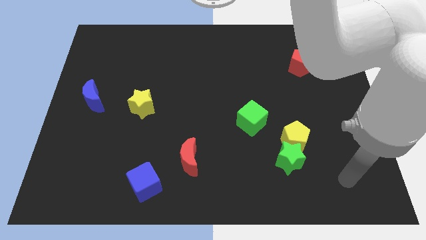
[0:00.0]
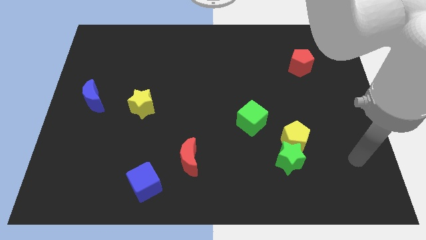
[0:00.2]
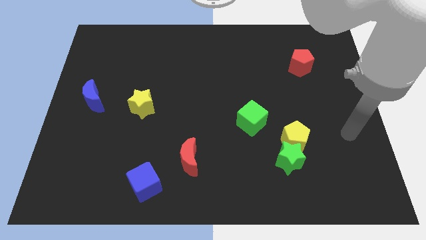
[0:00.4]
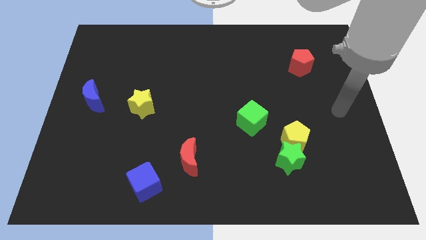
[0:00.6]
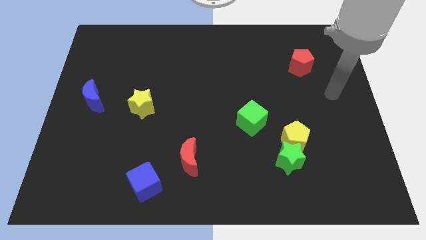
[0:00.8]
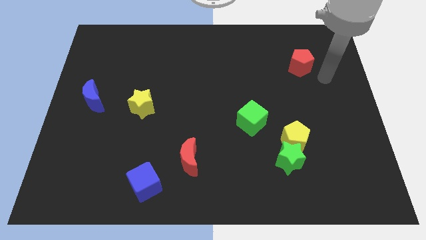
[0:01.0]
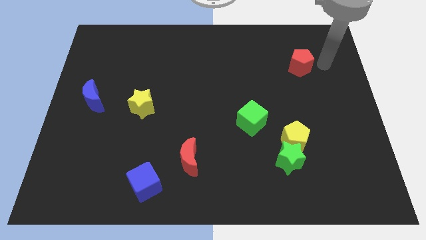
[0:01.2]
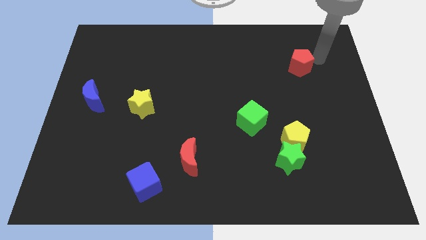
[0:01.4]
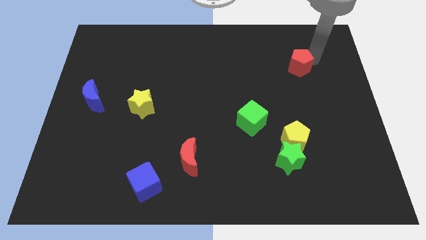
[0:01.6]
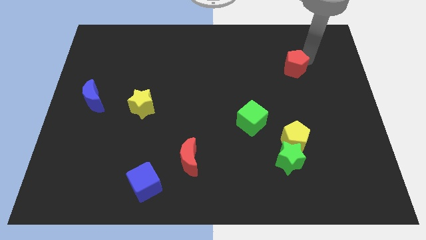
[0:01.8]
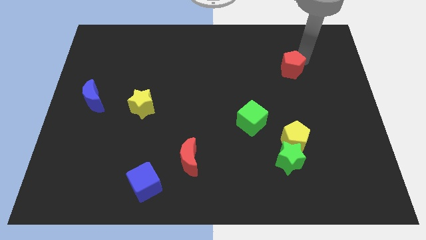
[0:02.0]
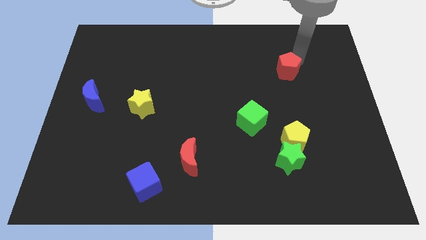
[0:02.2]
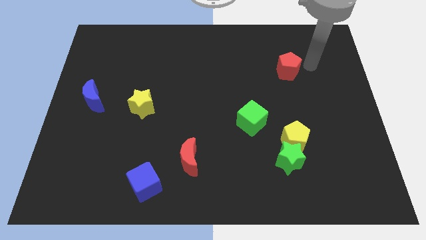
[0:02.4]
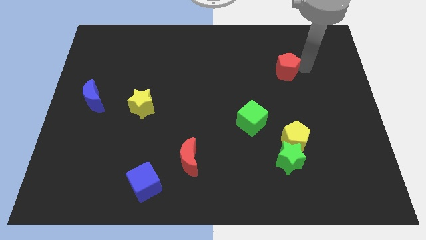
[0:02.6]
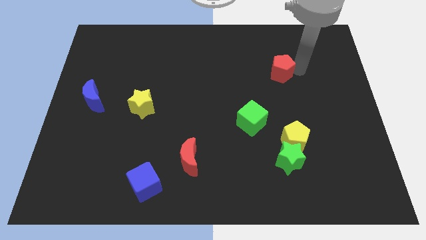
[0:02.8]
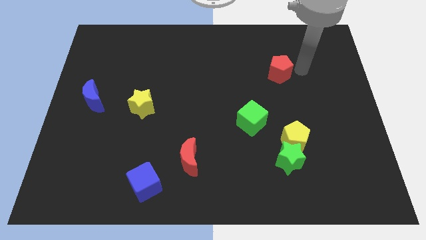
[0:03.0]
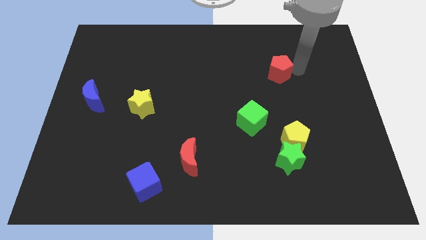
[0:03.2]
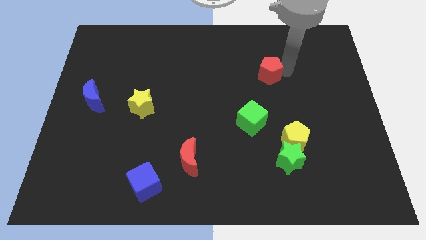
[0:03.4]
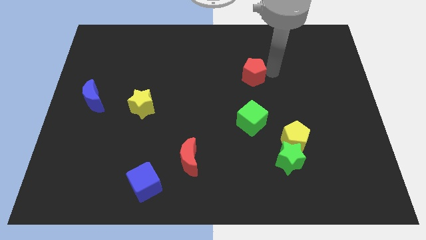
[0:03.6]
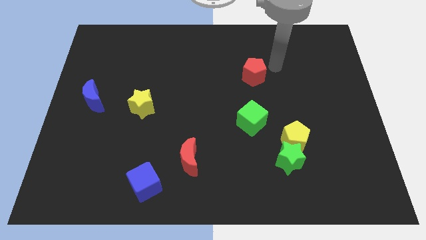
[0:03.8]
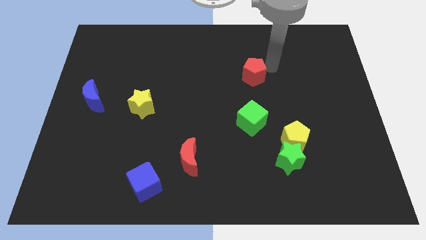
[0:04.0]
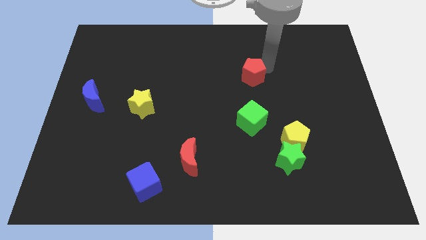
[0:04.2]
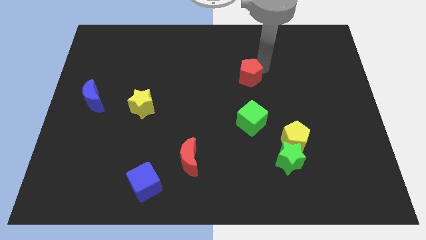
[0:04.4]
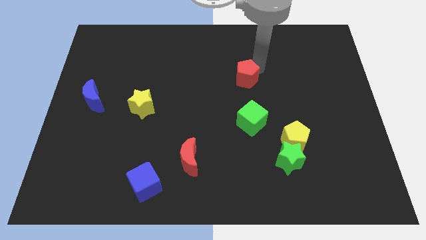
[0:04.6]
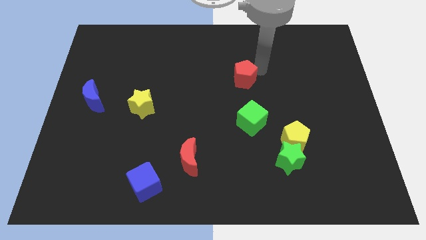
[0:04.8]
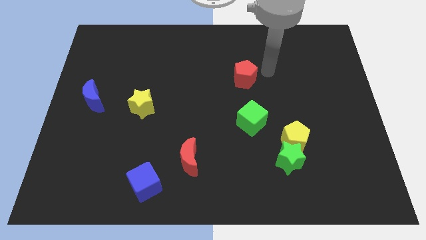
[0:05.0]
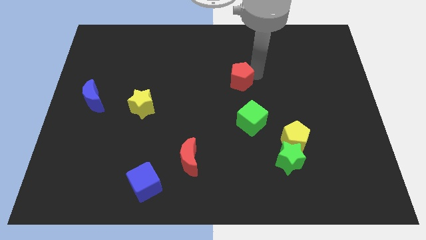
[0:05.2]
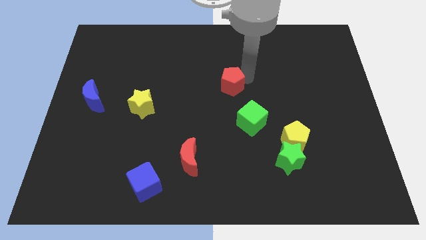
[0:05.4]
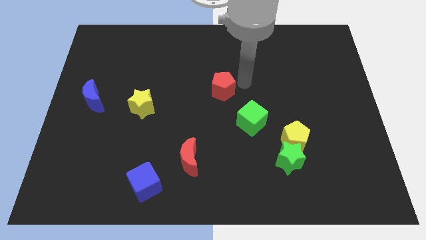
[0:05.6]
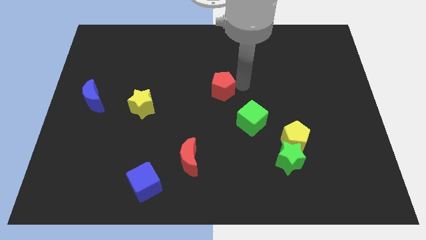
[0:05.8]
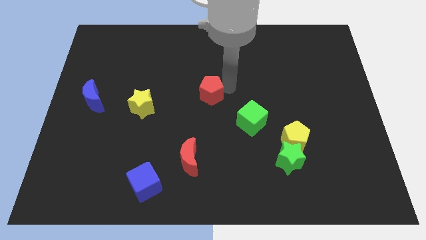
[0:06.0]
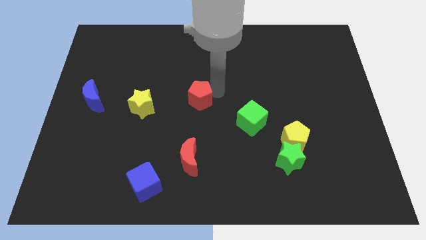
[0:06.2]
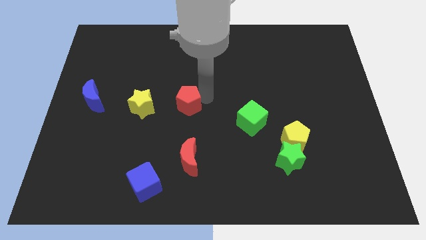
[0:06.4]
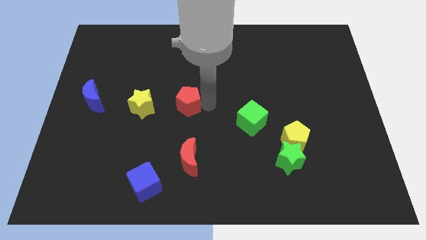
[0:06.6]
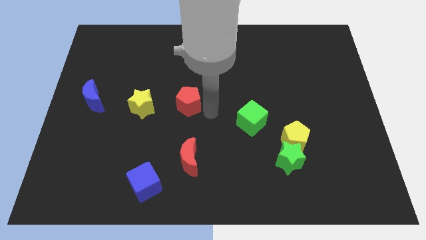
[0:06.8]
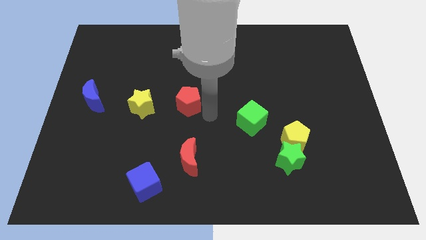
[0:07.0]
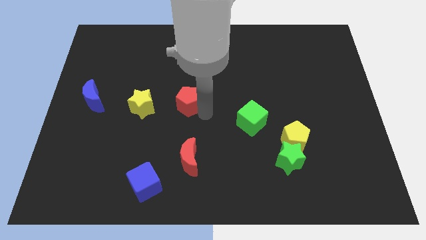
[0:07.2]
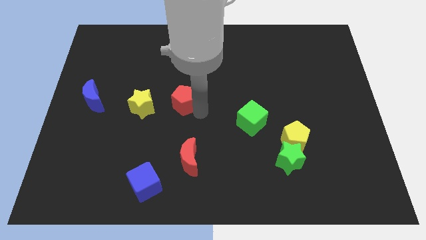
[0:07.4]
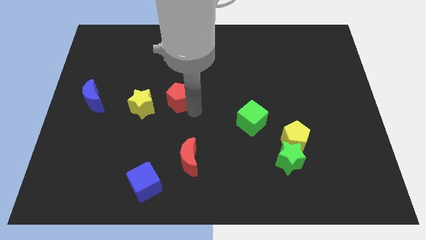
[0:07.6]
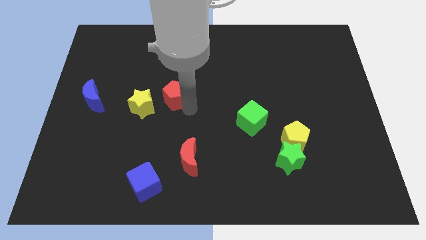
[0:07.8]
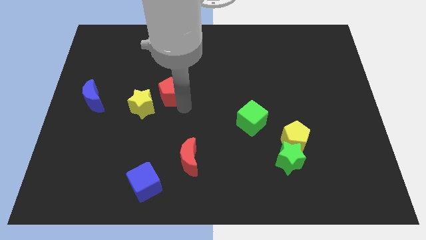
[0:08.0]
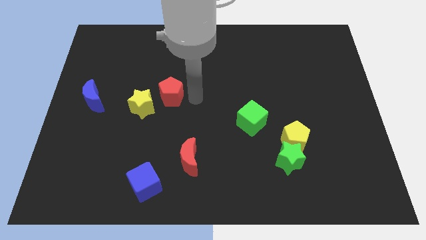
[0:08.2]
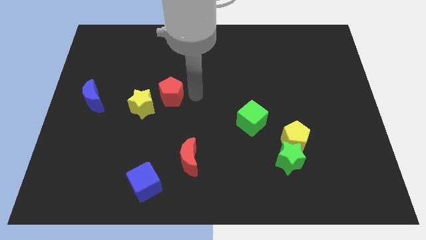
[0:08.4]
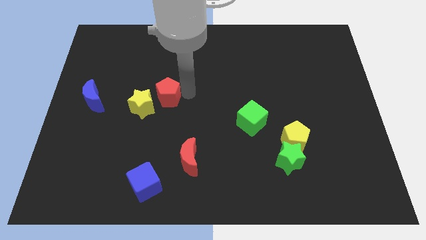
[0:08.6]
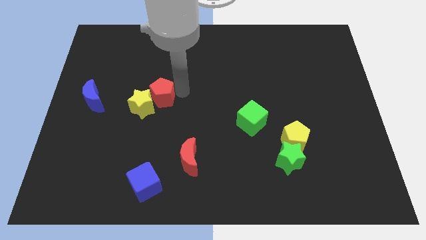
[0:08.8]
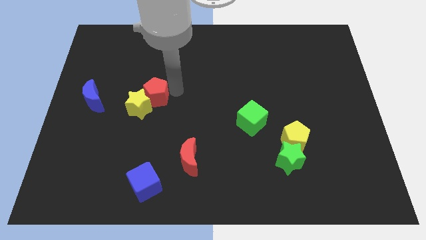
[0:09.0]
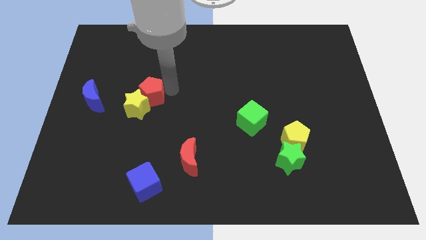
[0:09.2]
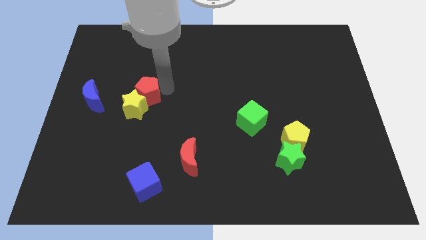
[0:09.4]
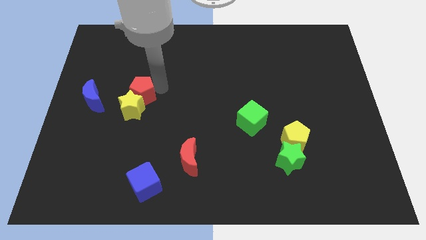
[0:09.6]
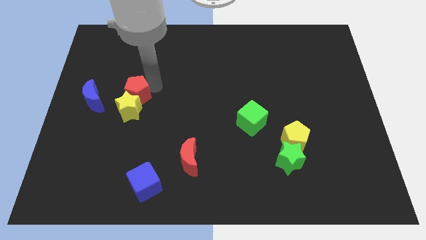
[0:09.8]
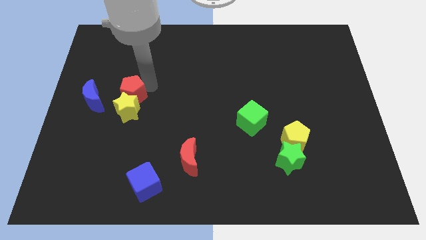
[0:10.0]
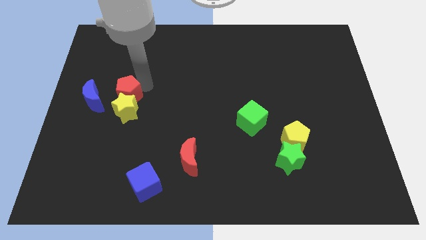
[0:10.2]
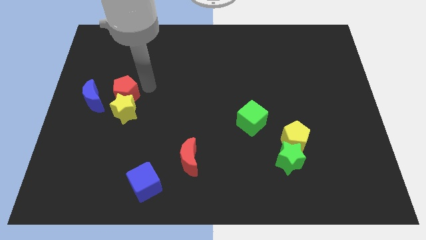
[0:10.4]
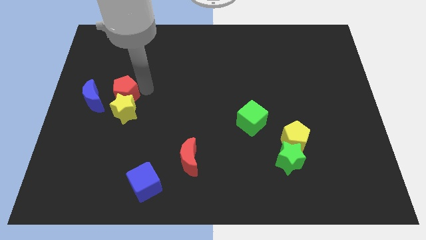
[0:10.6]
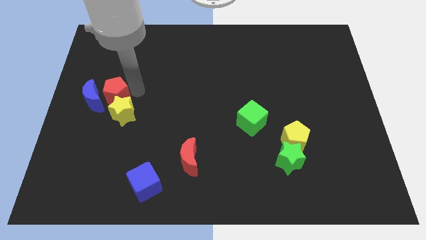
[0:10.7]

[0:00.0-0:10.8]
slide the red pentagon to the blue moon

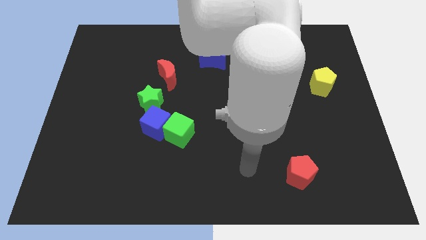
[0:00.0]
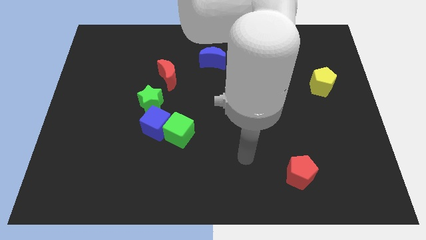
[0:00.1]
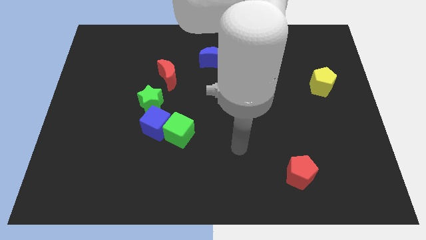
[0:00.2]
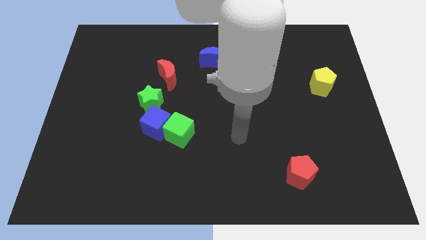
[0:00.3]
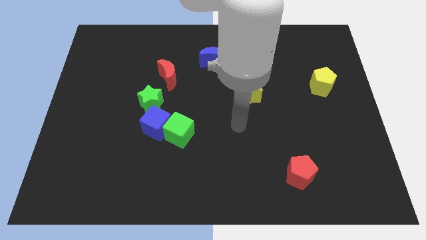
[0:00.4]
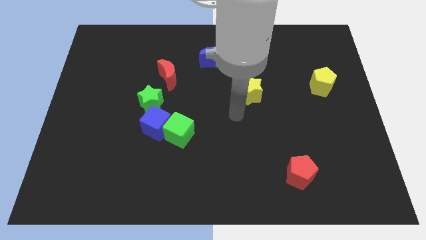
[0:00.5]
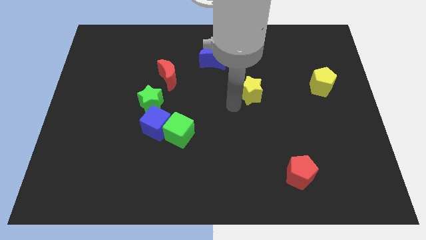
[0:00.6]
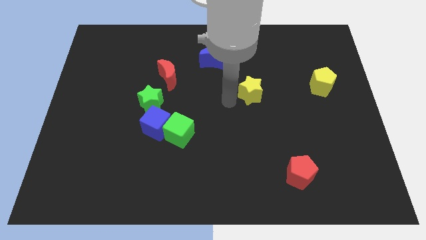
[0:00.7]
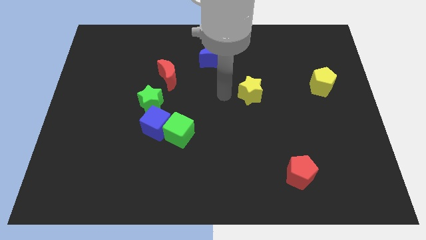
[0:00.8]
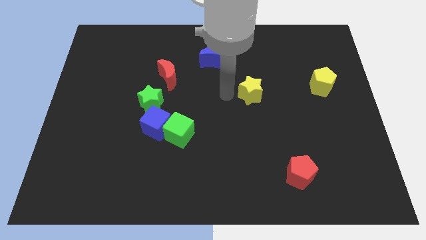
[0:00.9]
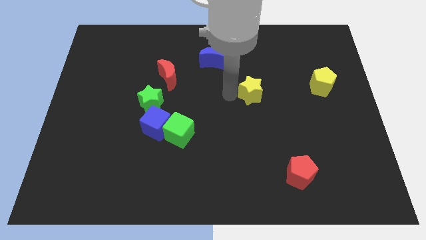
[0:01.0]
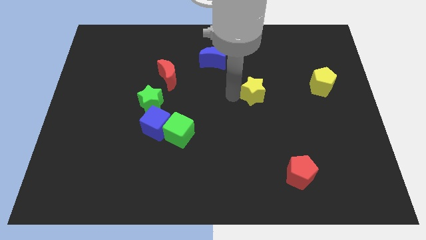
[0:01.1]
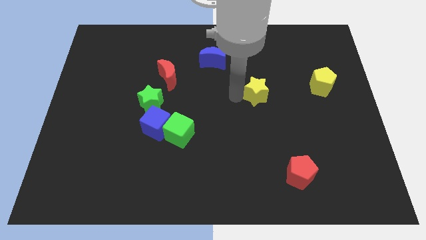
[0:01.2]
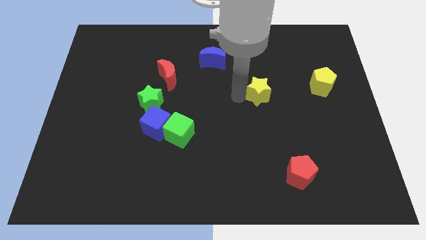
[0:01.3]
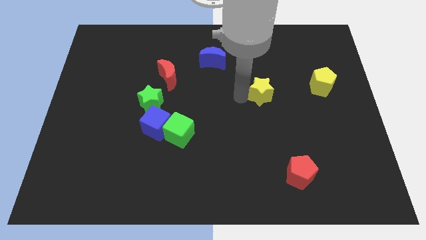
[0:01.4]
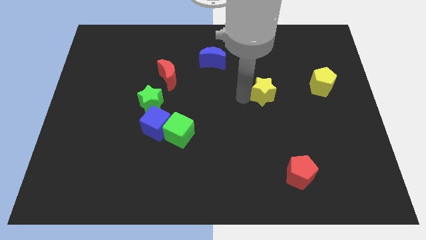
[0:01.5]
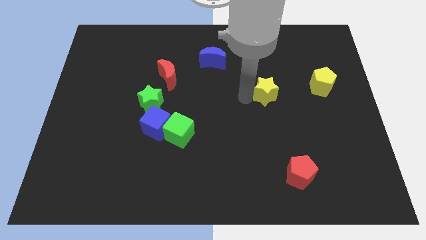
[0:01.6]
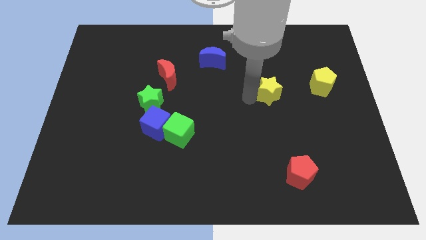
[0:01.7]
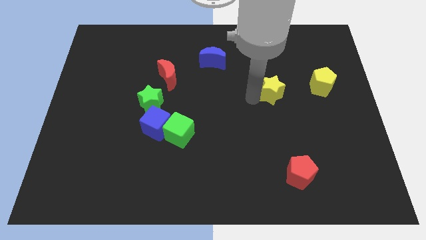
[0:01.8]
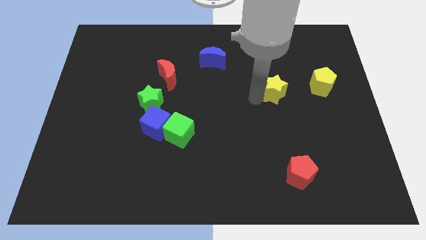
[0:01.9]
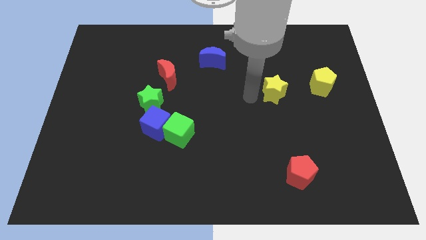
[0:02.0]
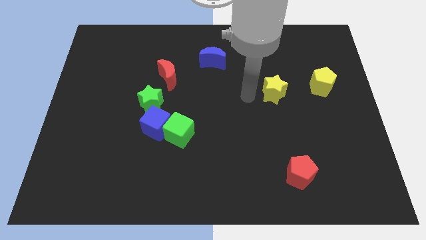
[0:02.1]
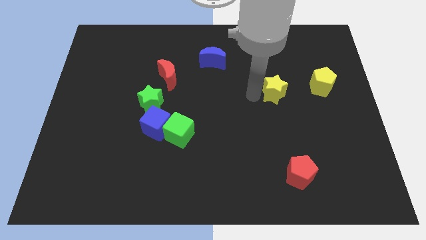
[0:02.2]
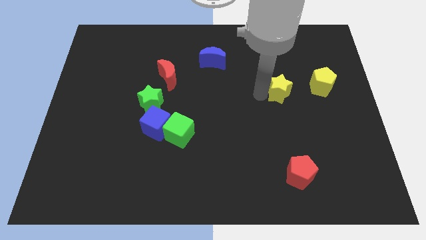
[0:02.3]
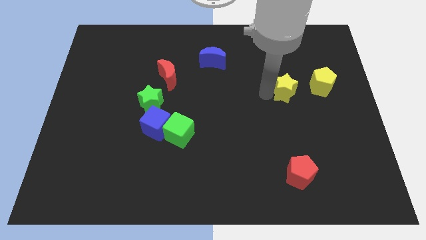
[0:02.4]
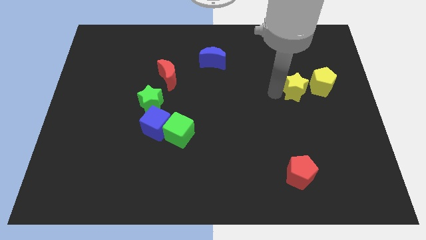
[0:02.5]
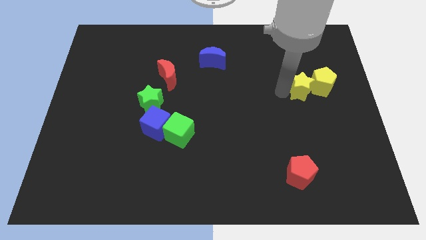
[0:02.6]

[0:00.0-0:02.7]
slide the yellow star towards the yellow pentagon
